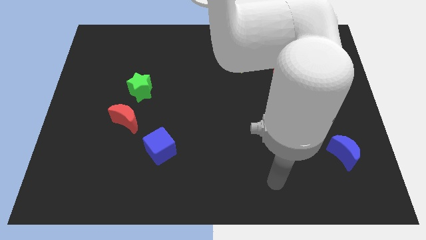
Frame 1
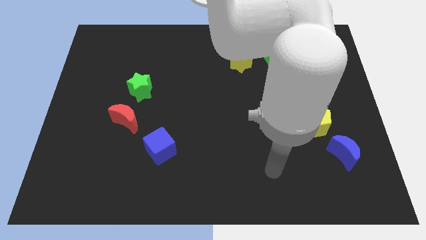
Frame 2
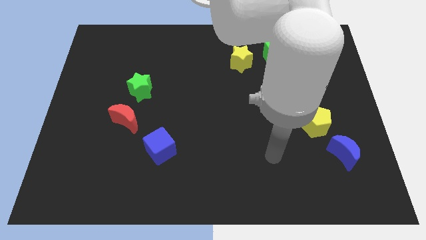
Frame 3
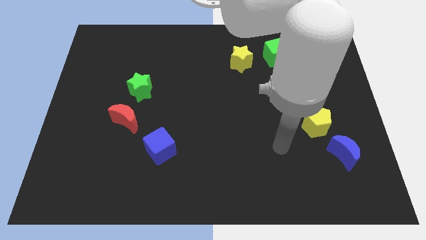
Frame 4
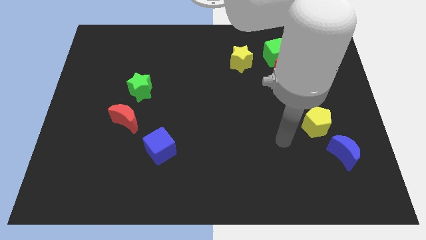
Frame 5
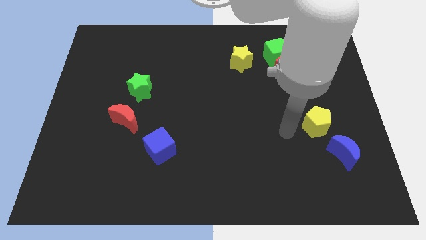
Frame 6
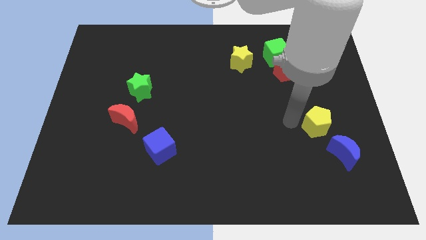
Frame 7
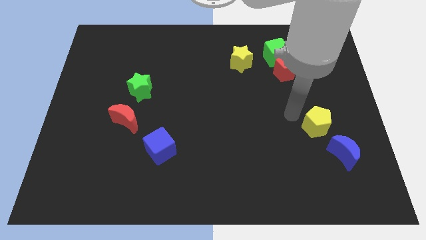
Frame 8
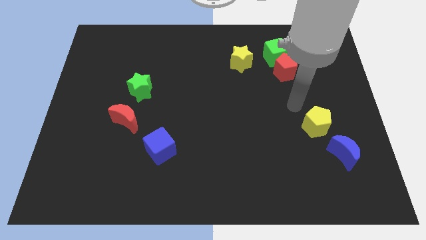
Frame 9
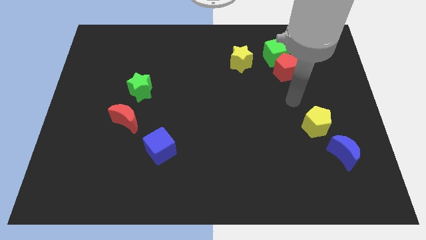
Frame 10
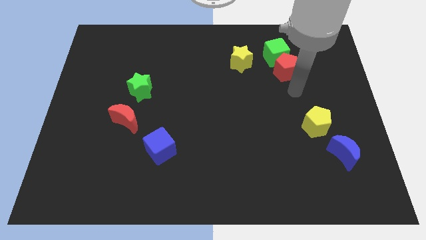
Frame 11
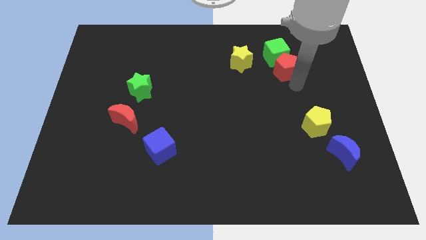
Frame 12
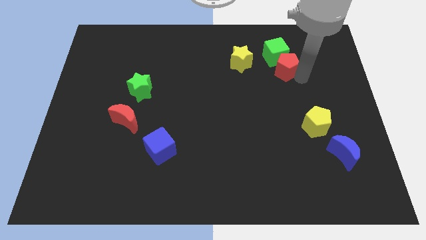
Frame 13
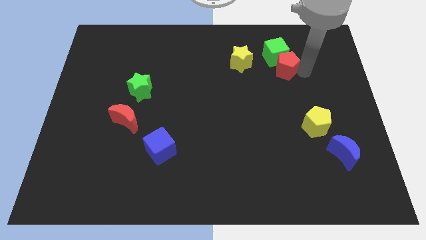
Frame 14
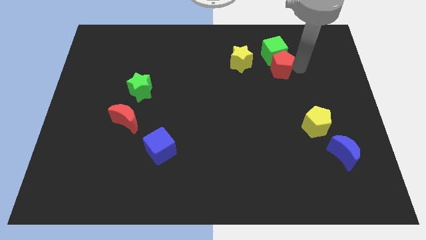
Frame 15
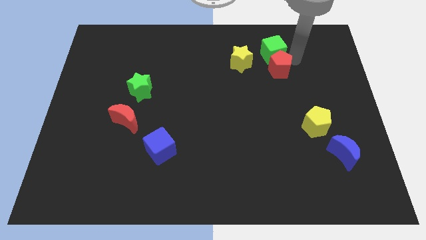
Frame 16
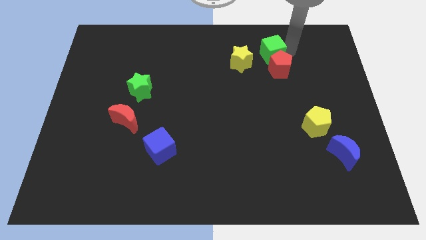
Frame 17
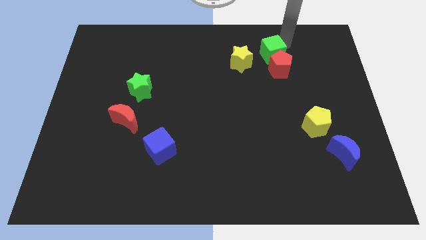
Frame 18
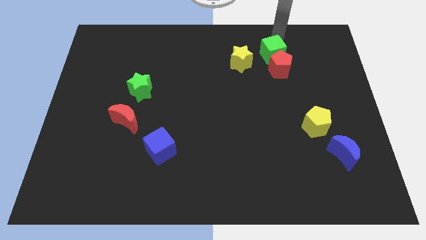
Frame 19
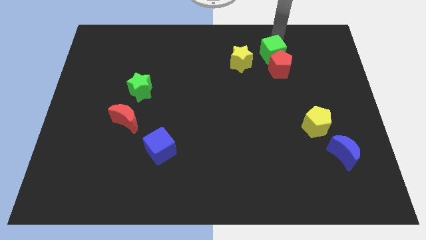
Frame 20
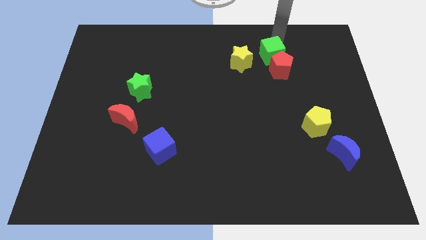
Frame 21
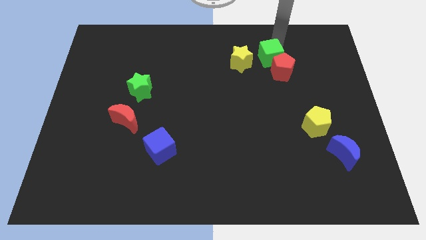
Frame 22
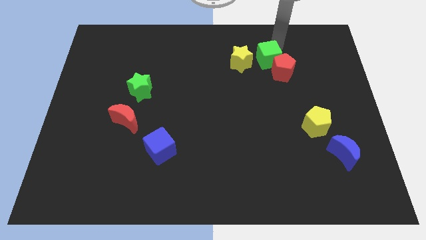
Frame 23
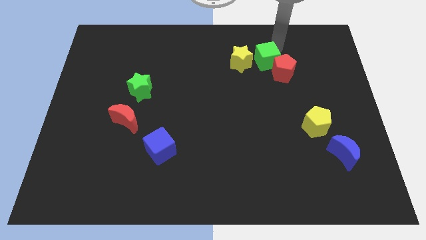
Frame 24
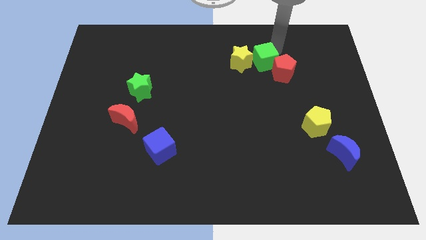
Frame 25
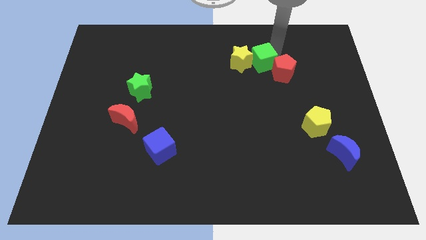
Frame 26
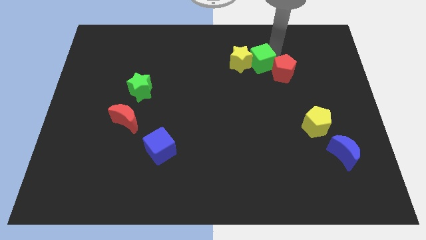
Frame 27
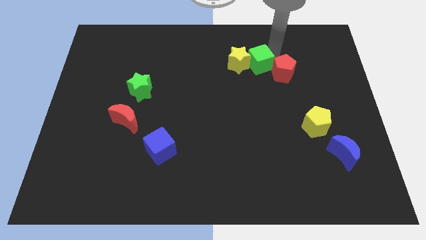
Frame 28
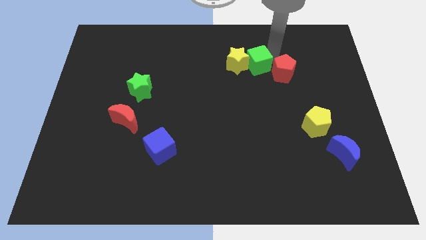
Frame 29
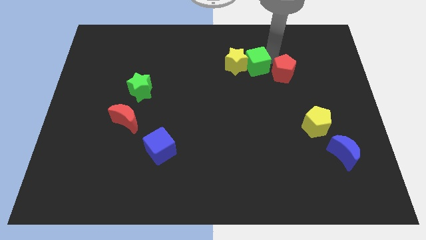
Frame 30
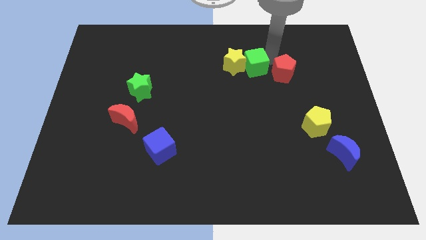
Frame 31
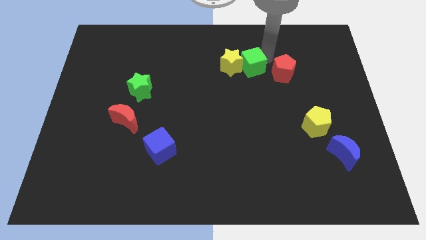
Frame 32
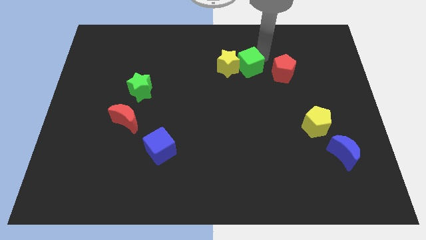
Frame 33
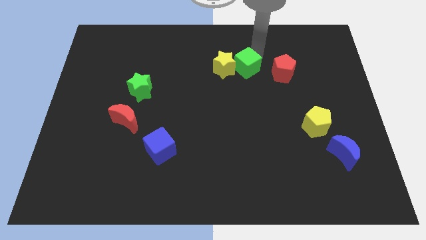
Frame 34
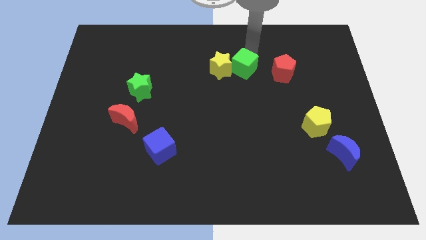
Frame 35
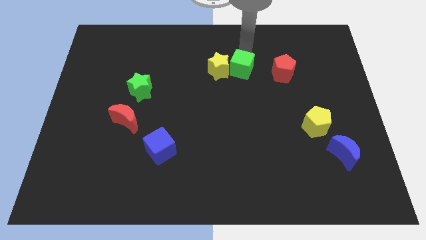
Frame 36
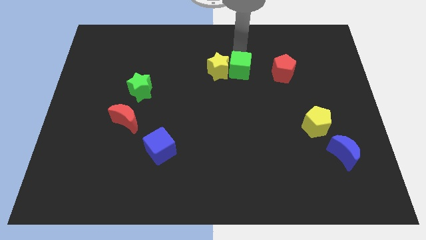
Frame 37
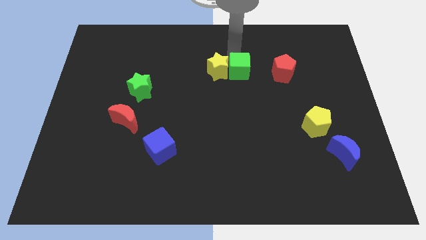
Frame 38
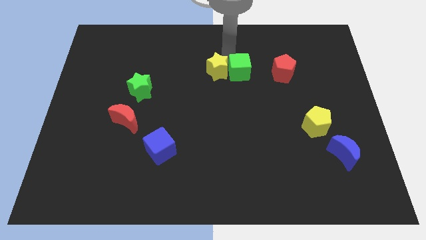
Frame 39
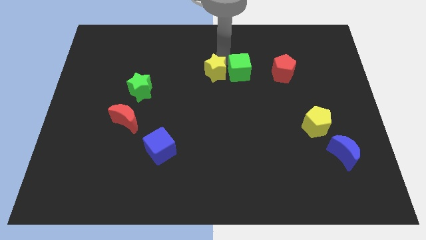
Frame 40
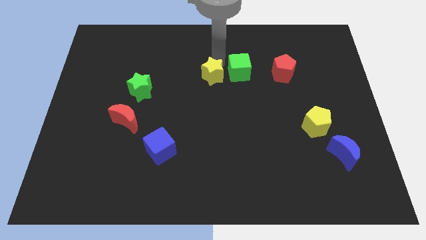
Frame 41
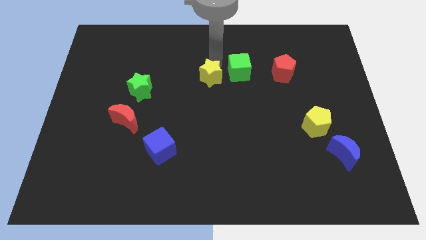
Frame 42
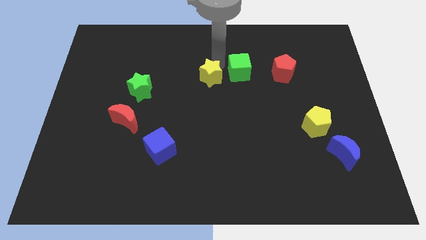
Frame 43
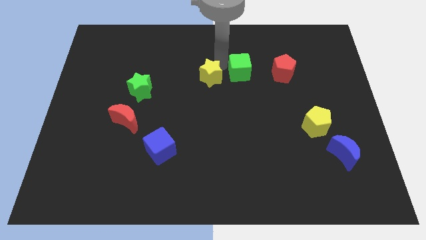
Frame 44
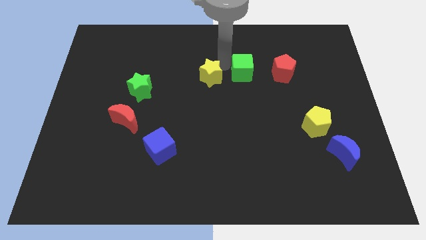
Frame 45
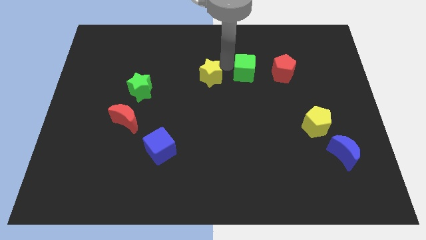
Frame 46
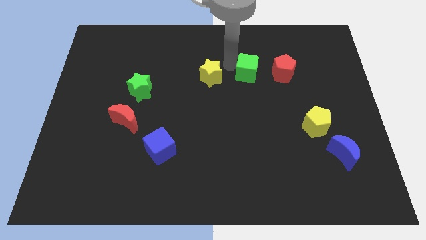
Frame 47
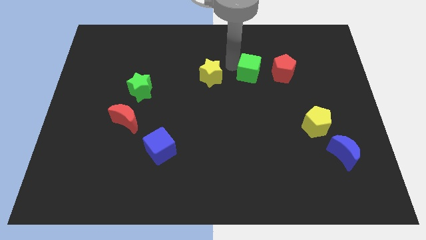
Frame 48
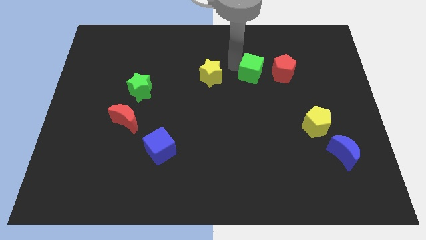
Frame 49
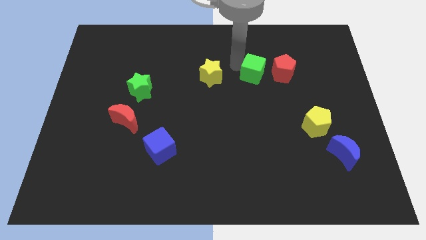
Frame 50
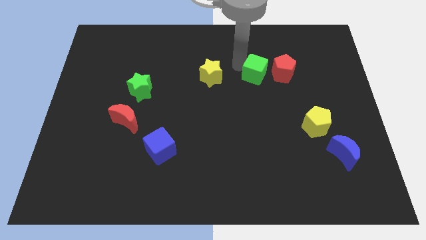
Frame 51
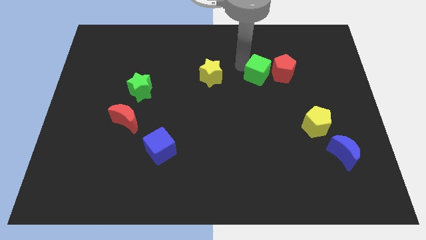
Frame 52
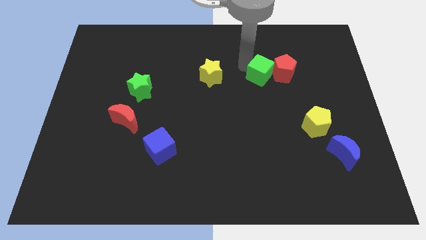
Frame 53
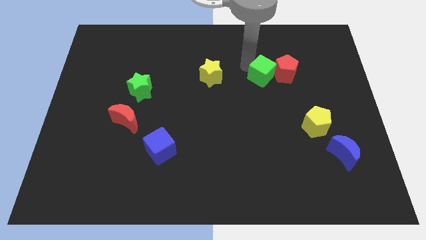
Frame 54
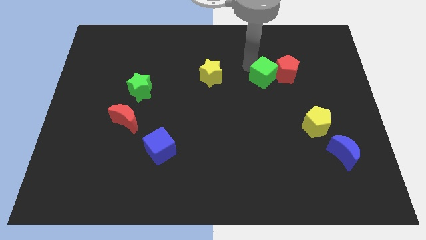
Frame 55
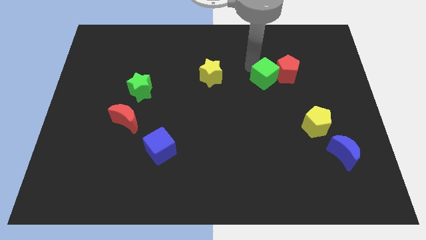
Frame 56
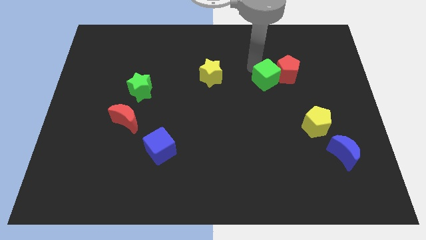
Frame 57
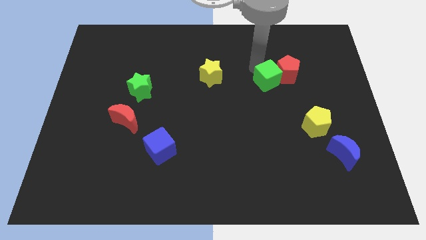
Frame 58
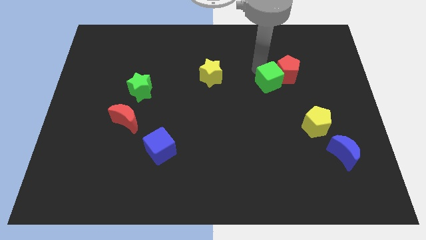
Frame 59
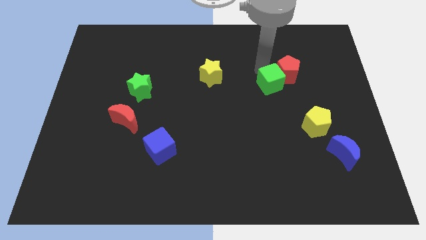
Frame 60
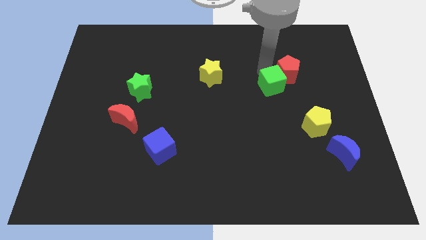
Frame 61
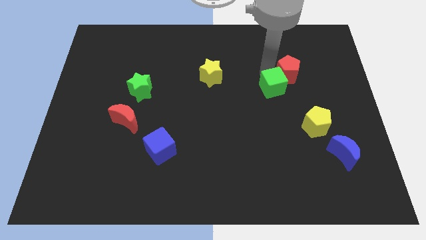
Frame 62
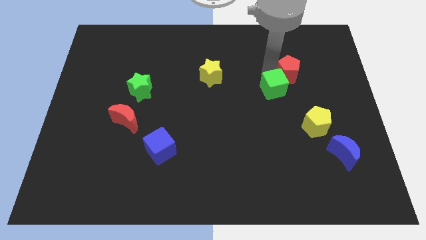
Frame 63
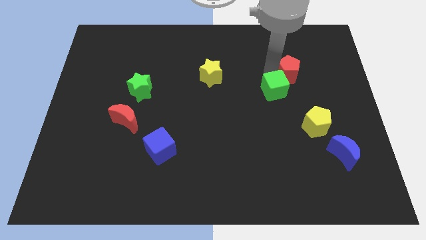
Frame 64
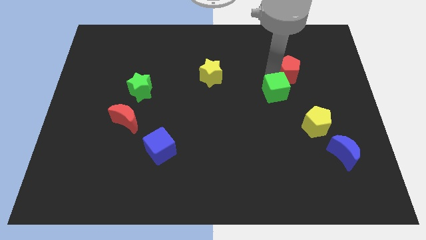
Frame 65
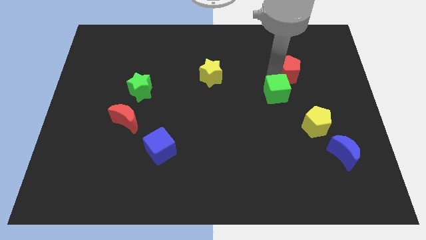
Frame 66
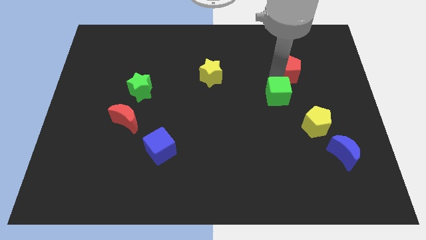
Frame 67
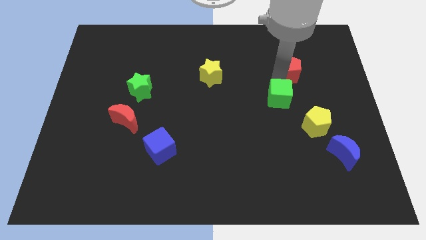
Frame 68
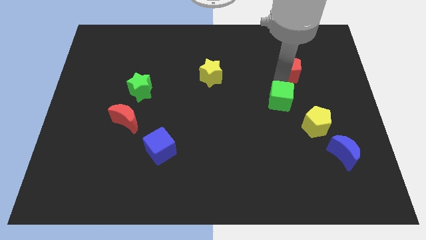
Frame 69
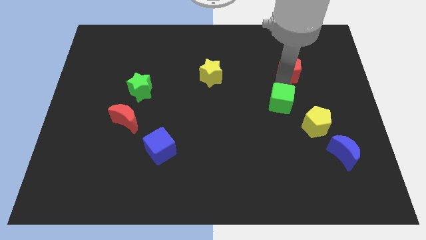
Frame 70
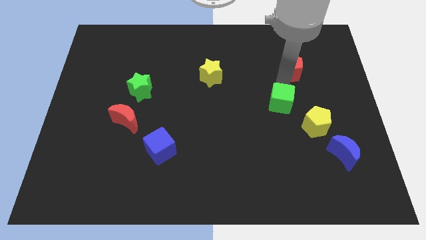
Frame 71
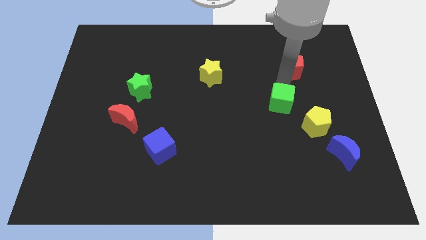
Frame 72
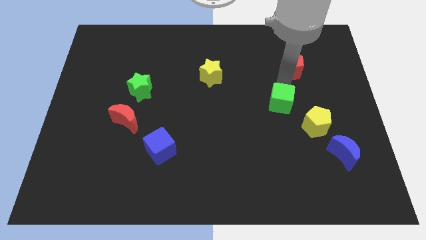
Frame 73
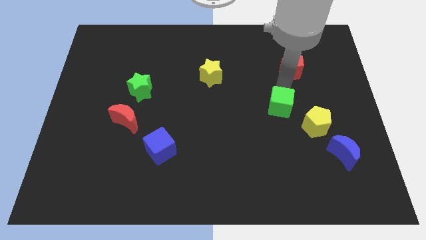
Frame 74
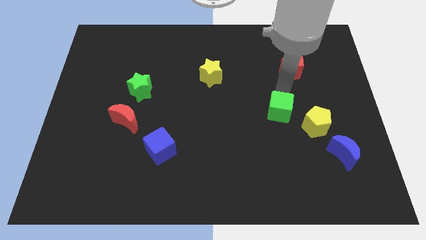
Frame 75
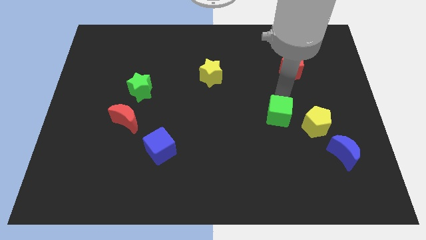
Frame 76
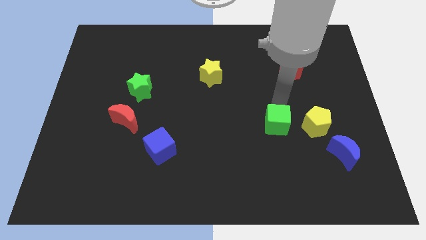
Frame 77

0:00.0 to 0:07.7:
move the green cube down

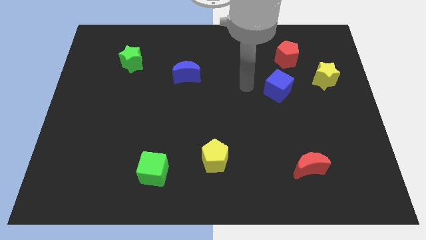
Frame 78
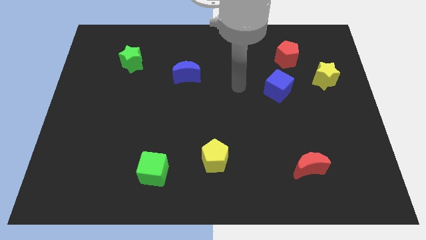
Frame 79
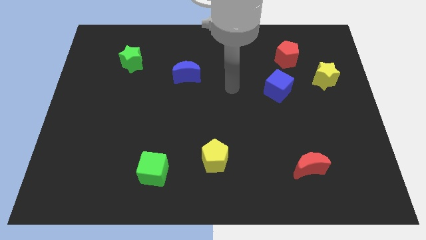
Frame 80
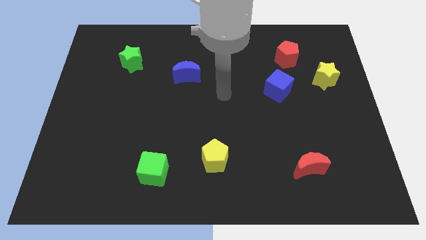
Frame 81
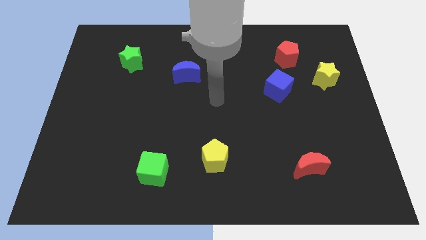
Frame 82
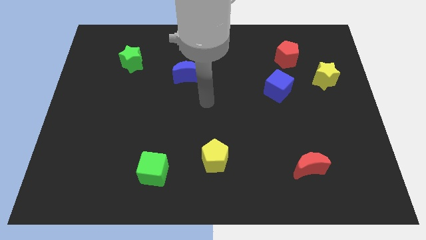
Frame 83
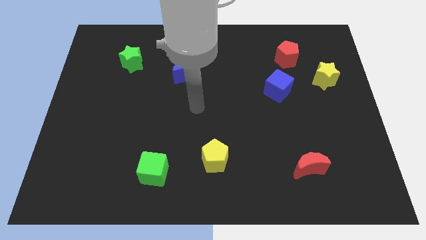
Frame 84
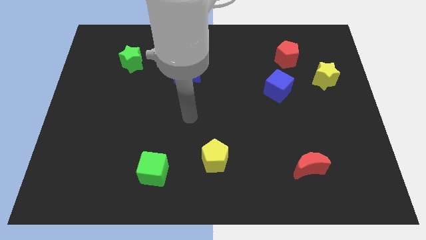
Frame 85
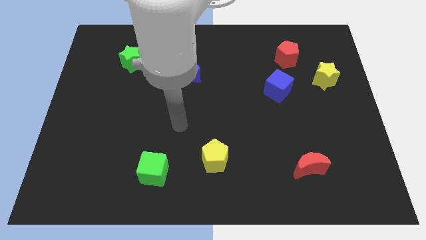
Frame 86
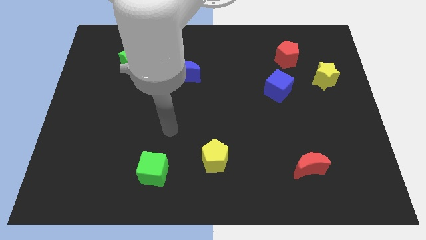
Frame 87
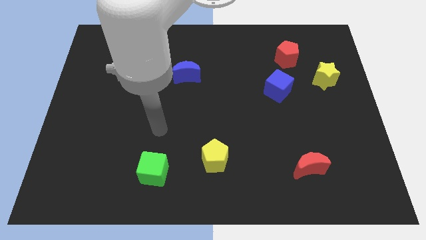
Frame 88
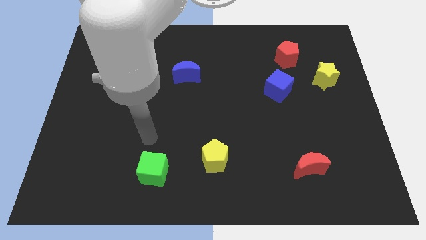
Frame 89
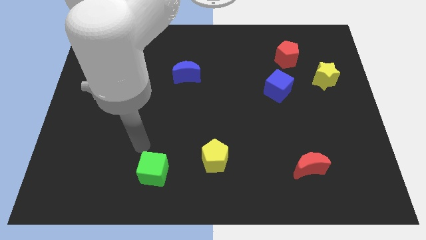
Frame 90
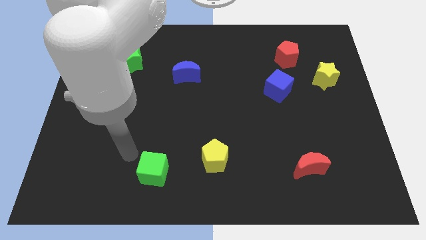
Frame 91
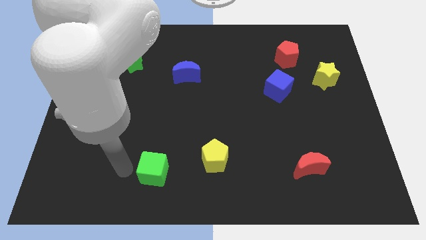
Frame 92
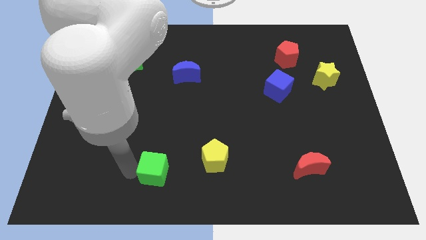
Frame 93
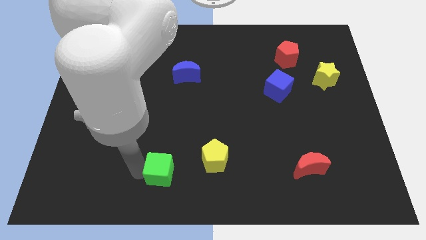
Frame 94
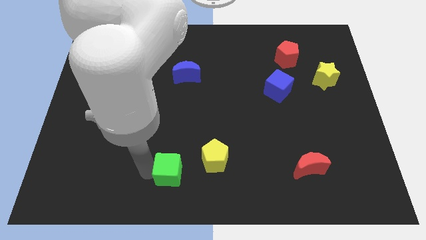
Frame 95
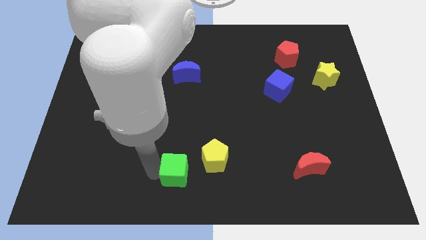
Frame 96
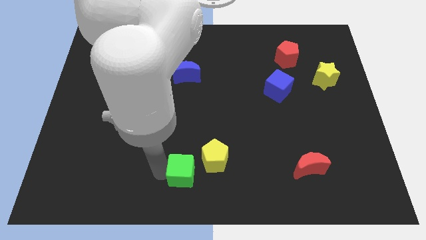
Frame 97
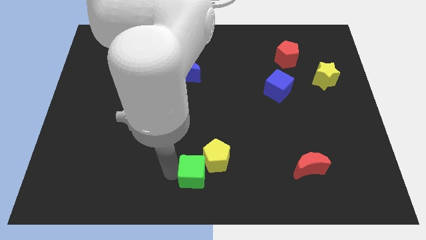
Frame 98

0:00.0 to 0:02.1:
move the green cube right slightly
